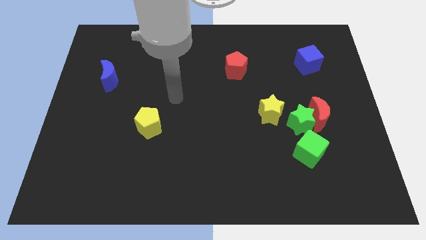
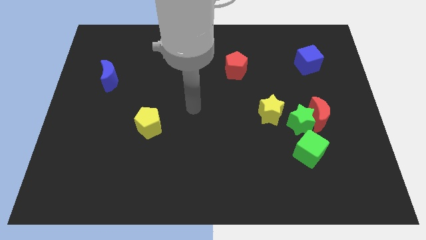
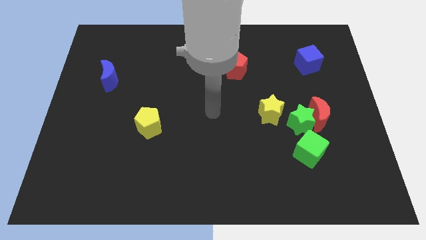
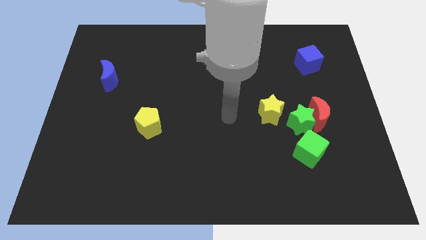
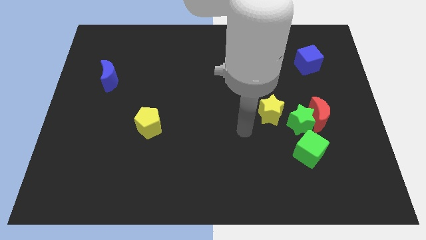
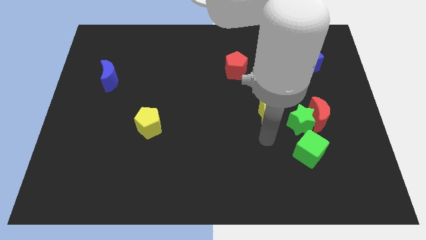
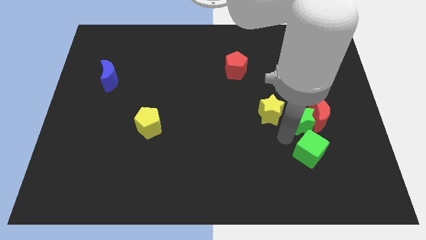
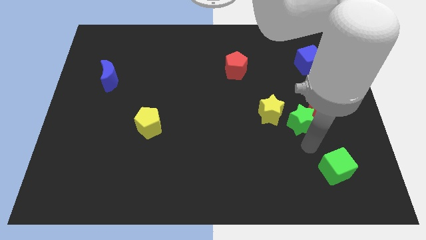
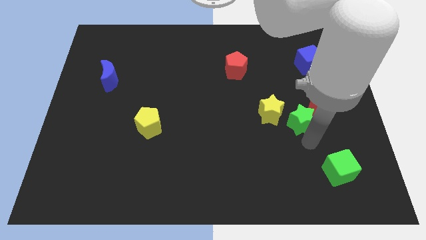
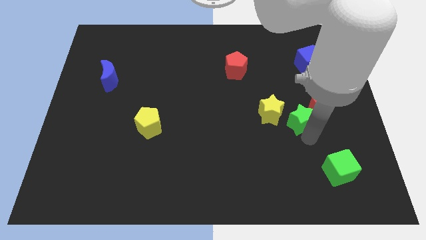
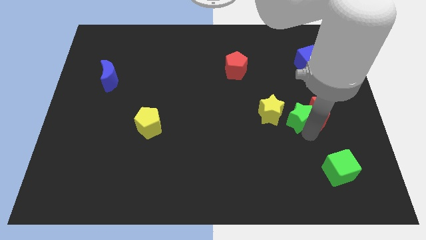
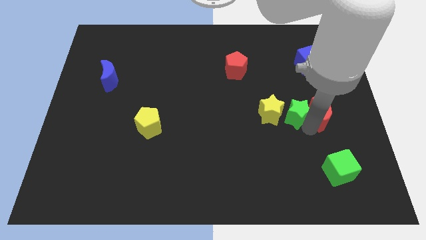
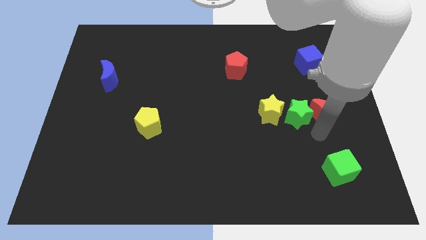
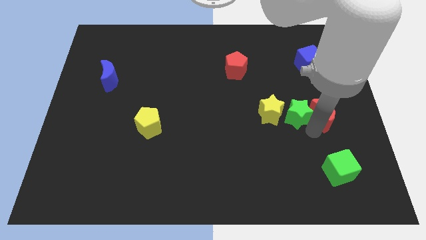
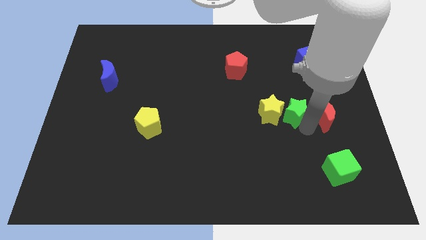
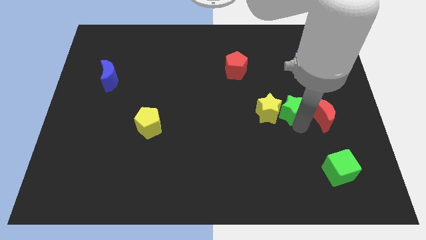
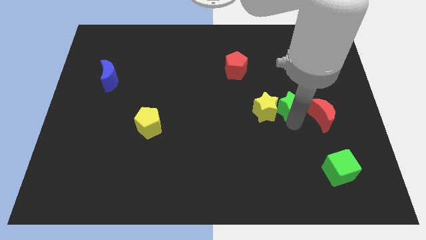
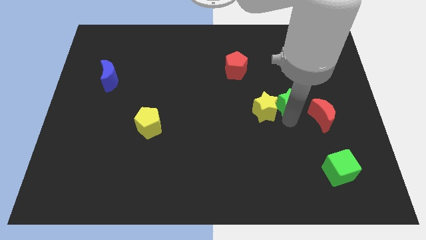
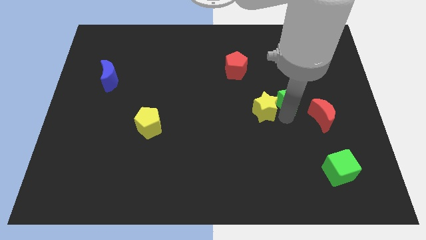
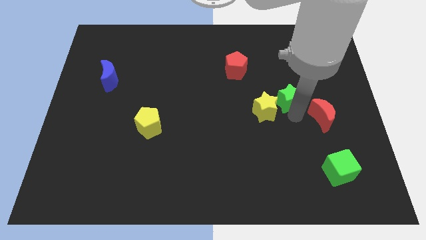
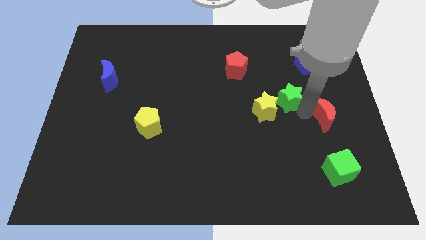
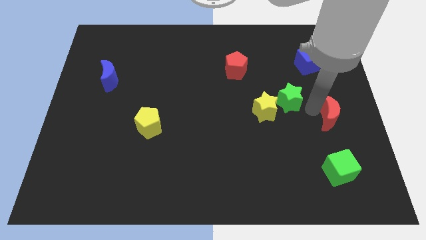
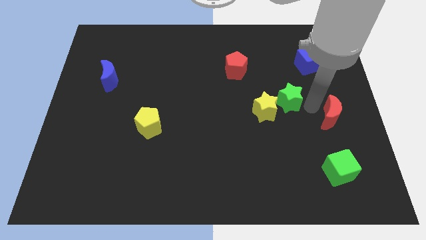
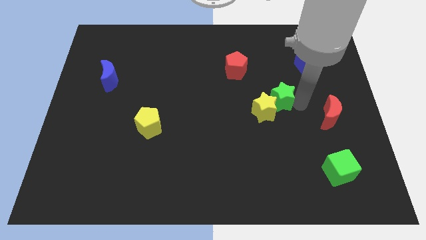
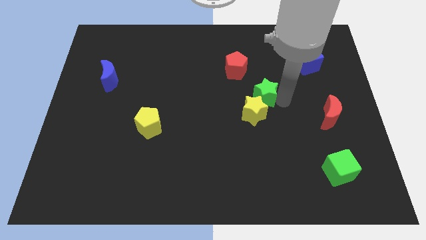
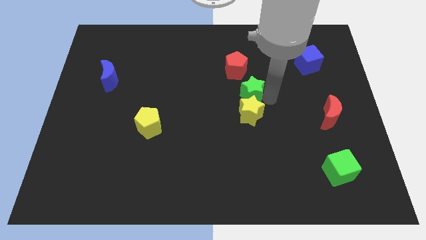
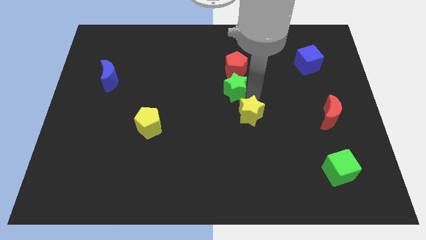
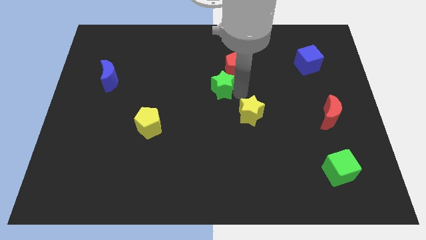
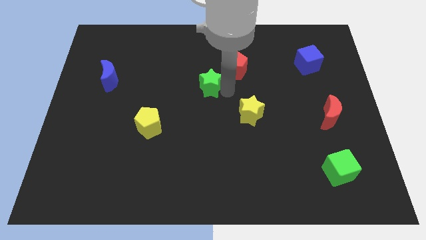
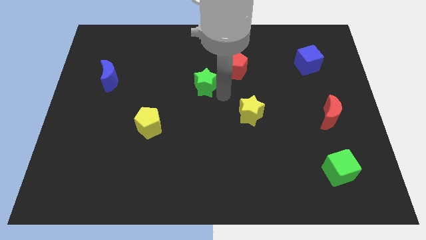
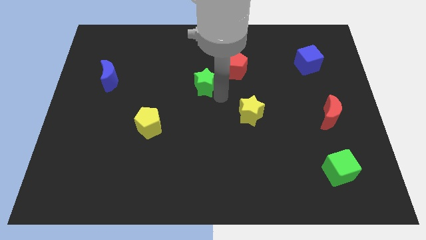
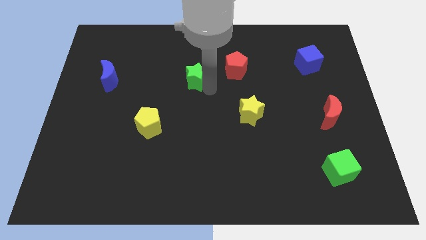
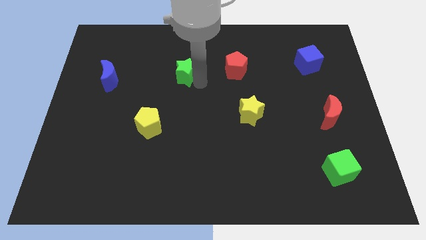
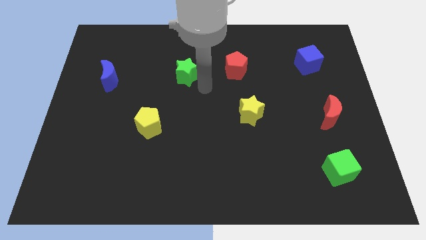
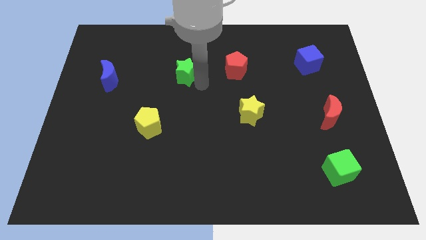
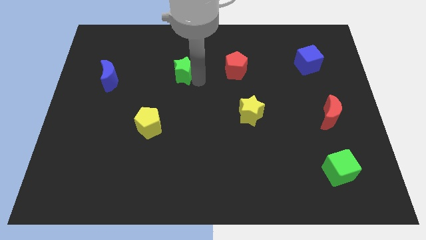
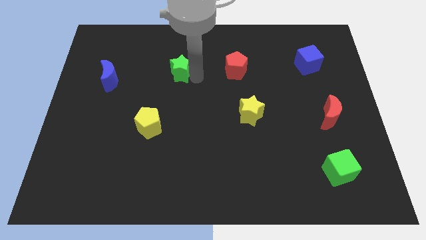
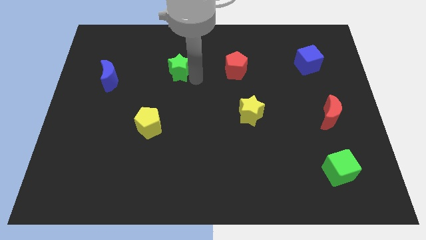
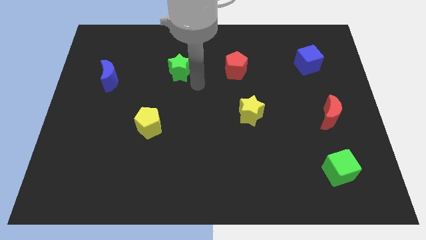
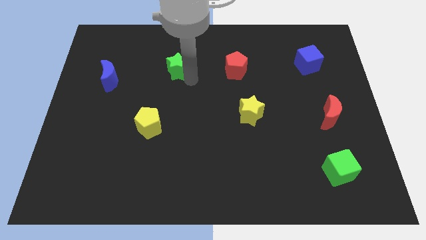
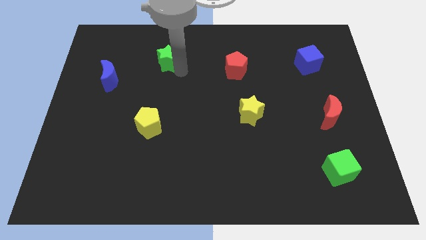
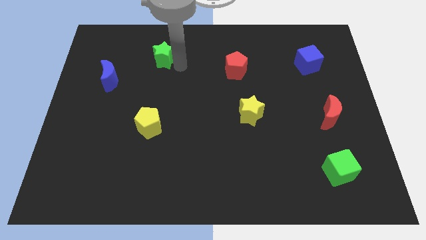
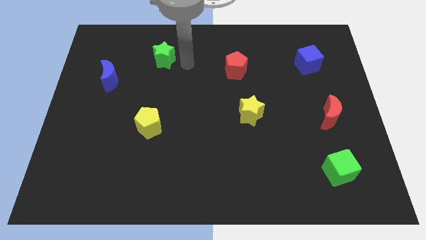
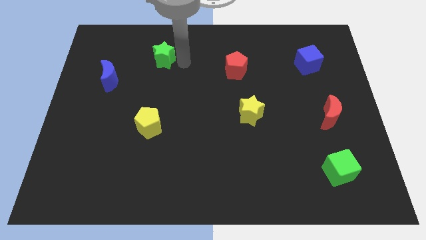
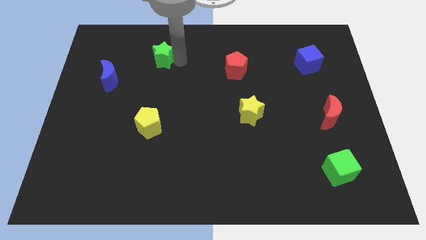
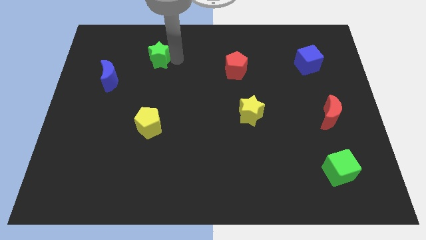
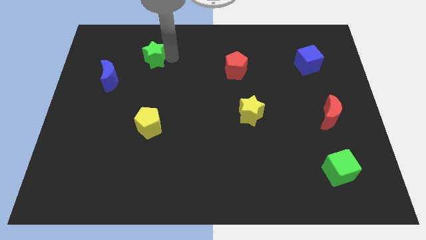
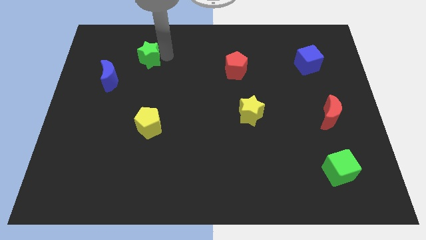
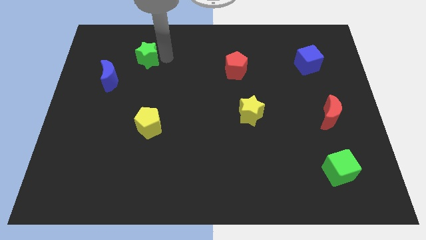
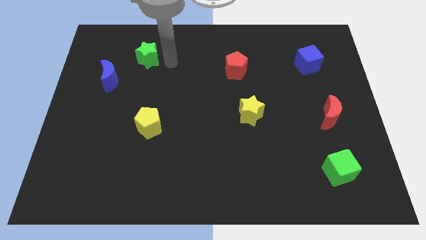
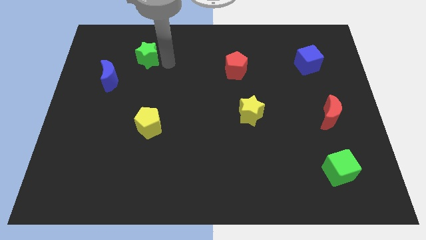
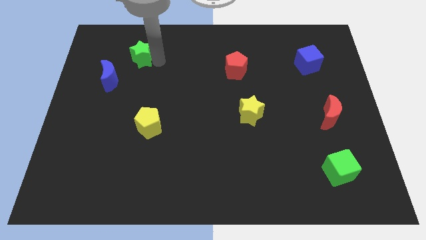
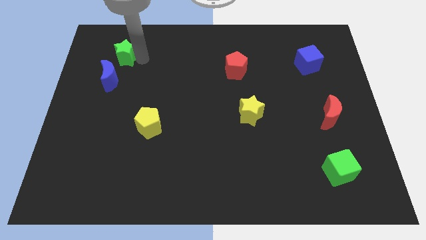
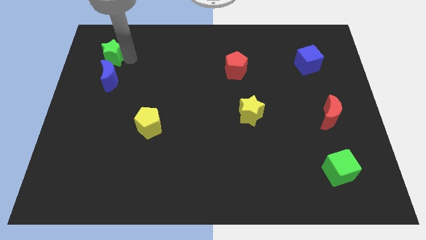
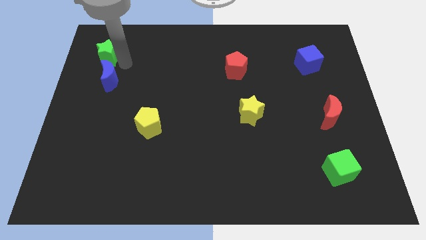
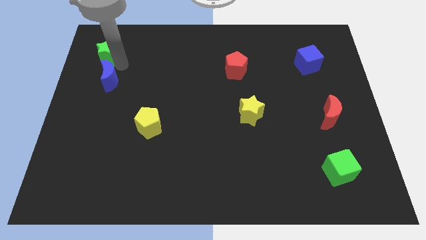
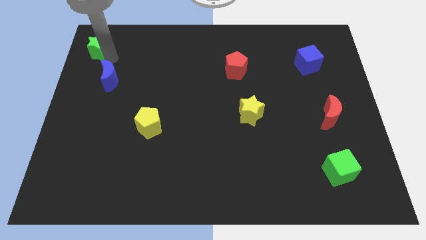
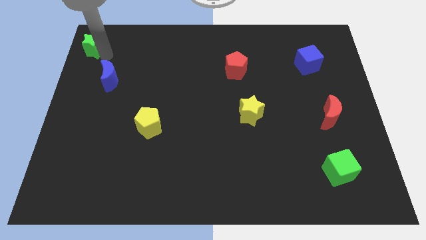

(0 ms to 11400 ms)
put the green star to the top left corner

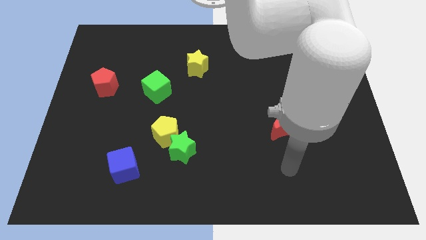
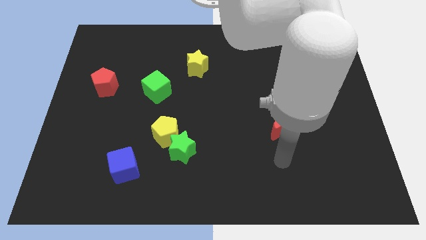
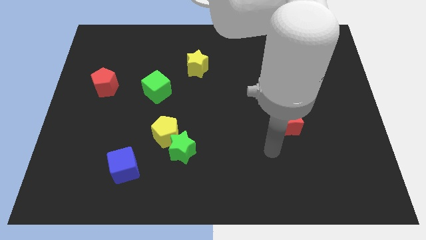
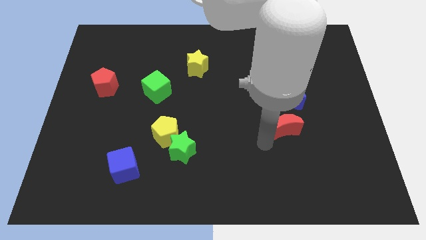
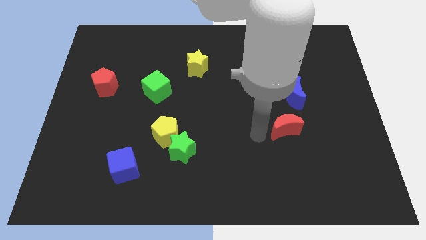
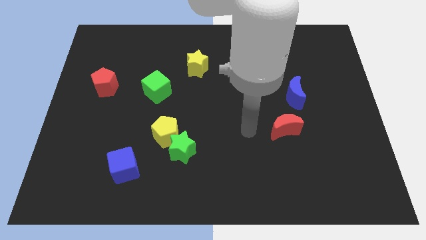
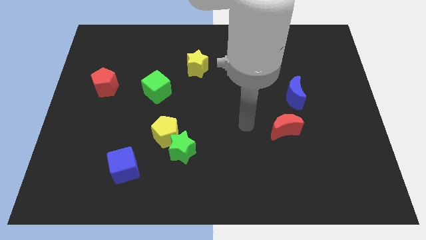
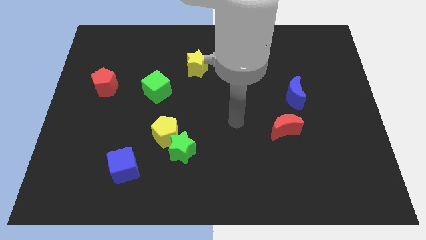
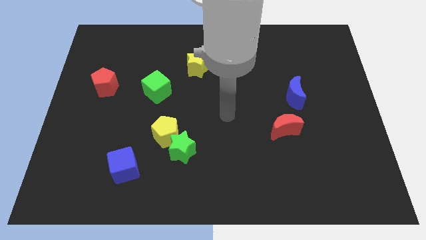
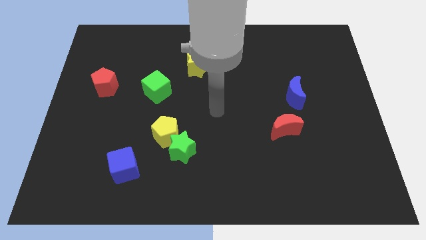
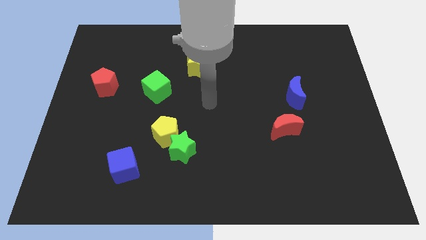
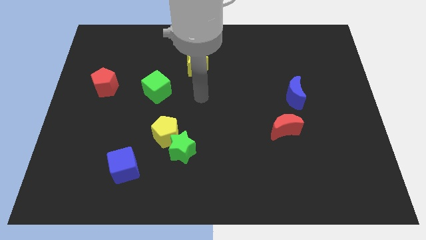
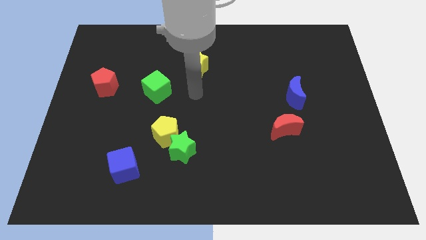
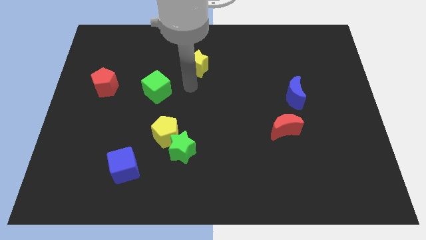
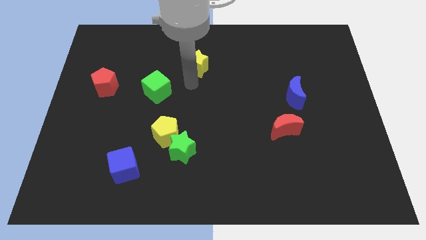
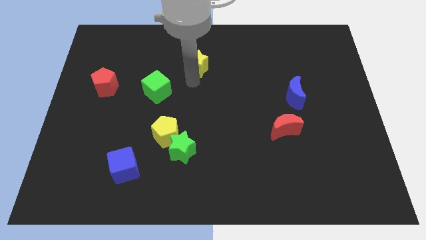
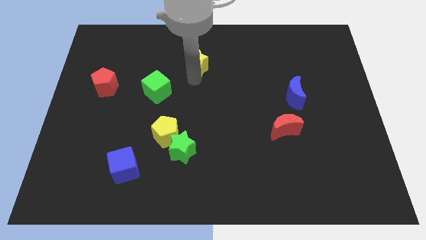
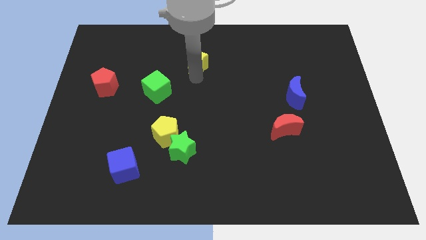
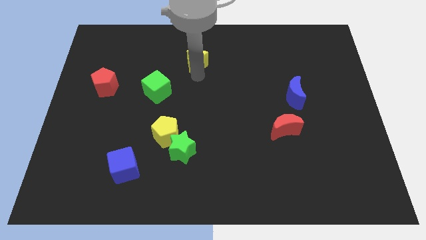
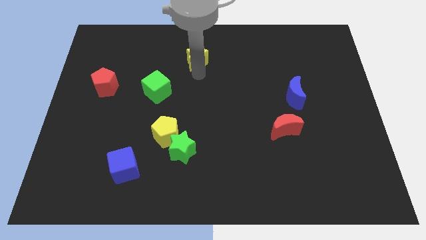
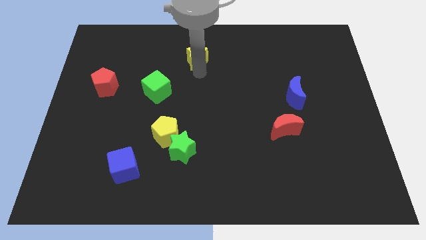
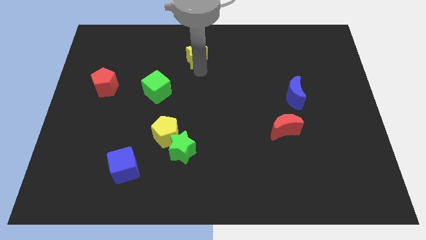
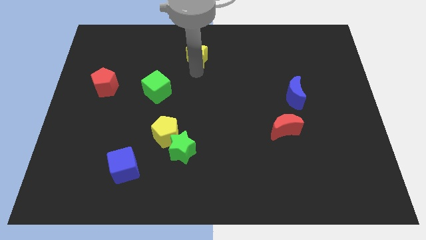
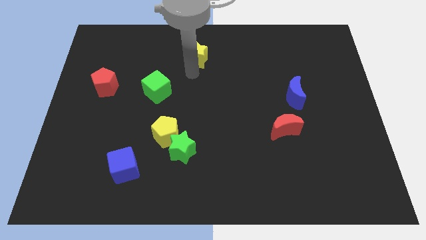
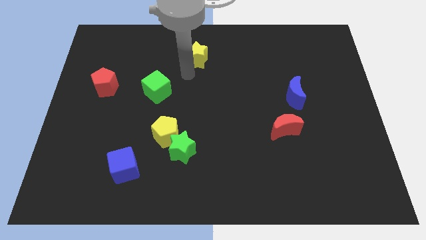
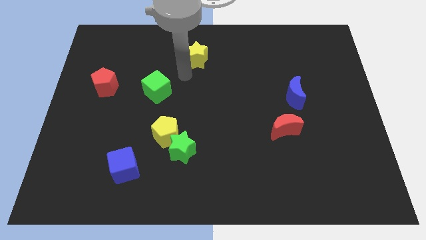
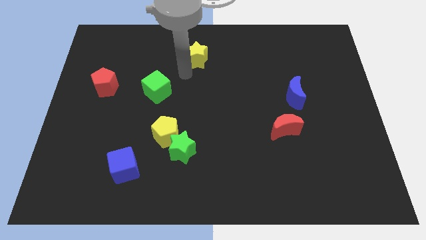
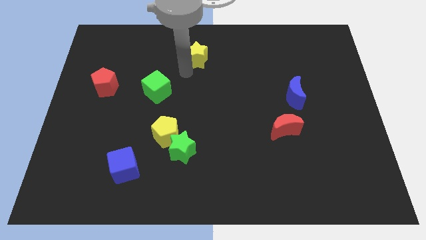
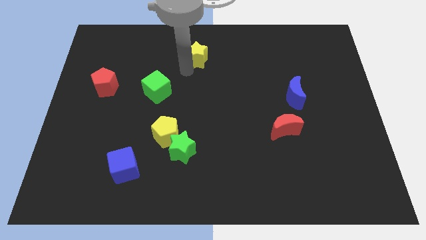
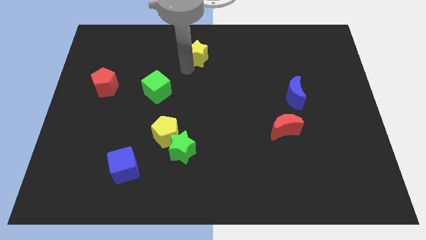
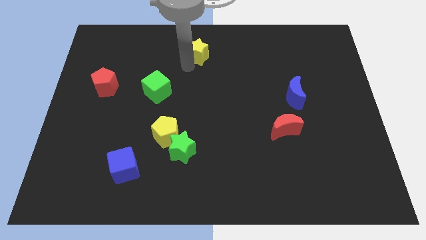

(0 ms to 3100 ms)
move the yellow star to the top side
